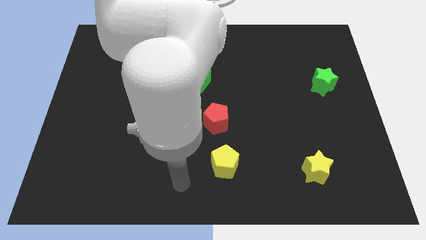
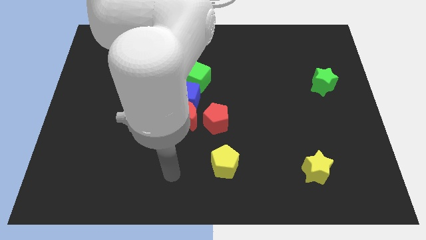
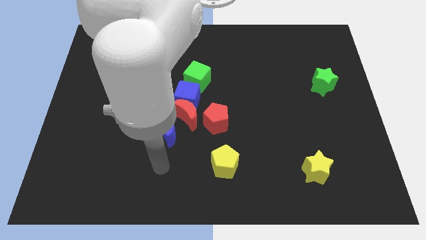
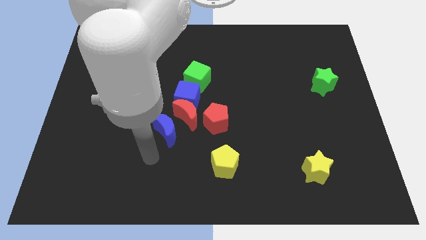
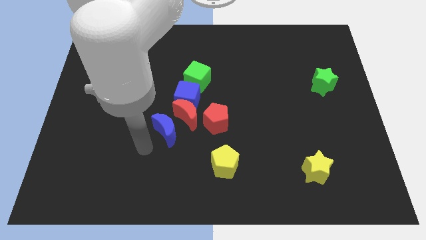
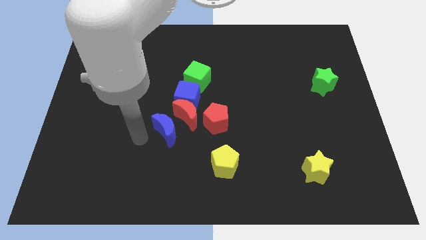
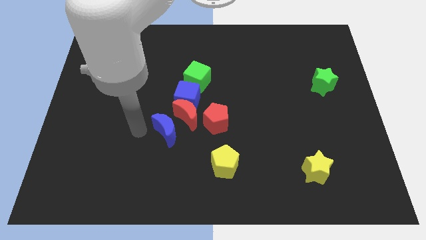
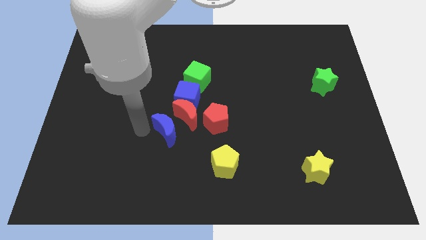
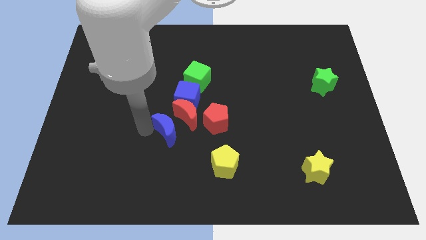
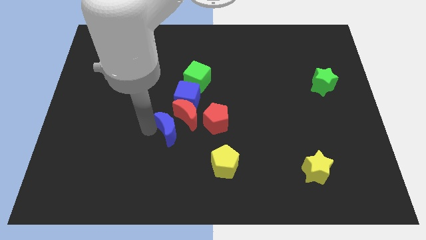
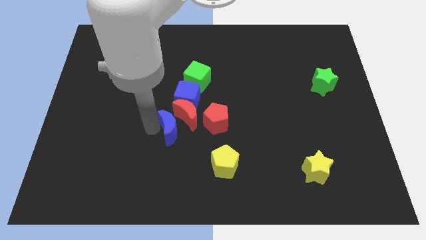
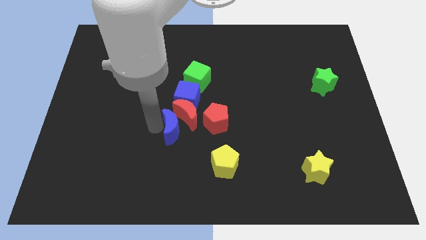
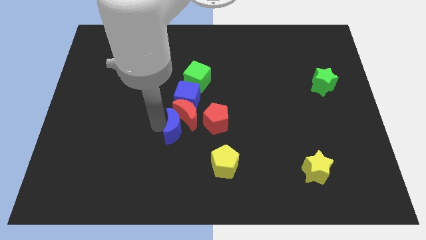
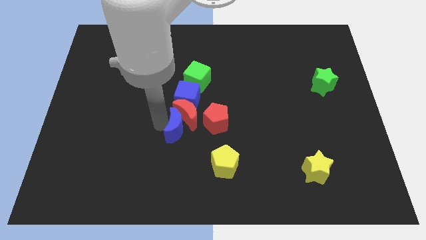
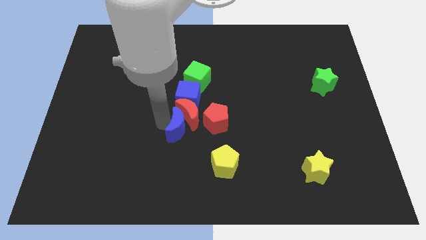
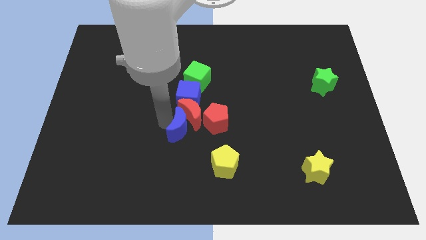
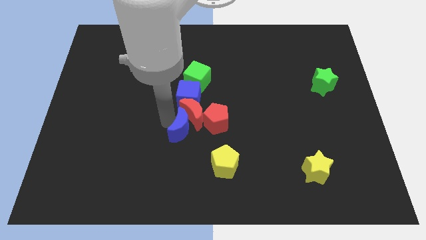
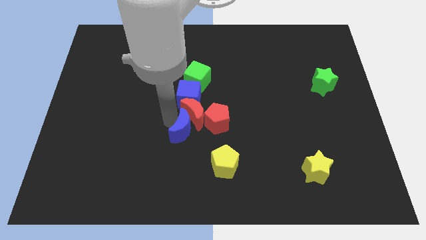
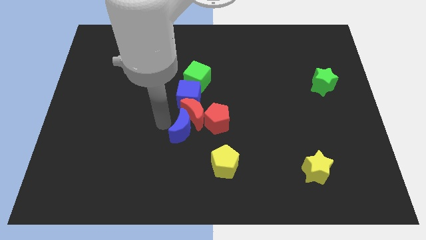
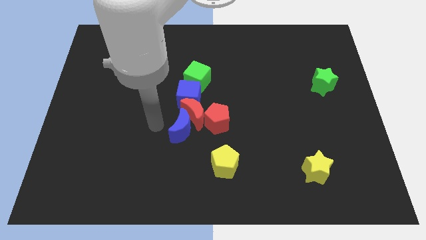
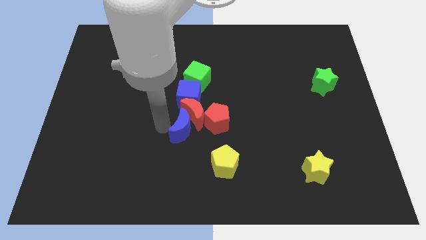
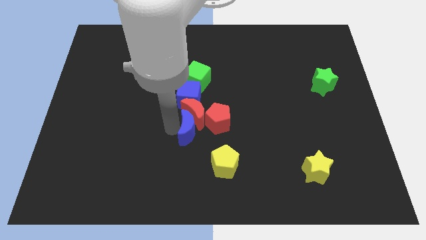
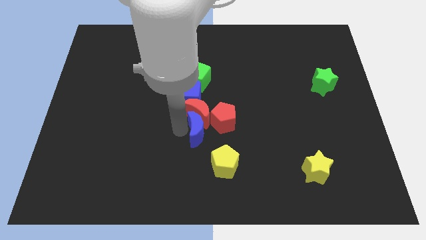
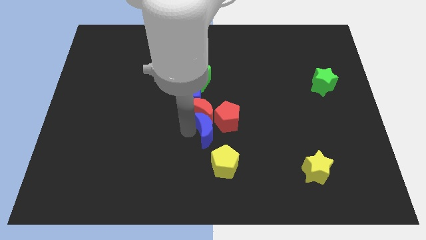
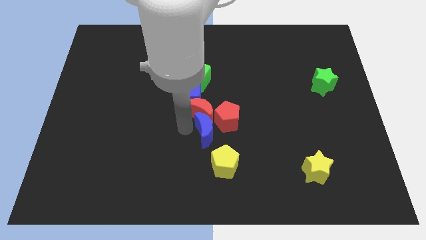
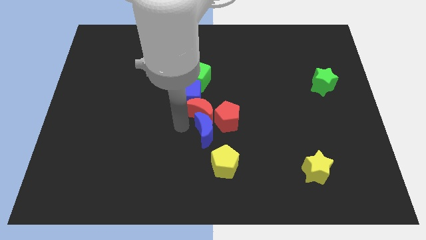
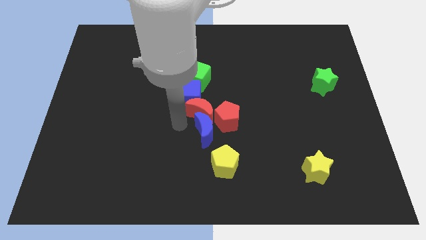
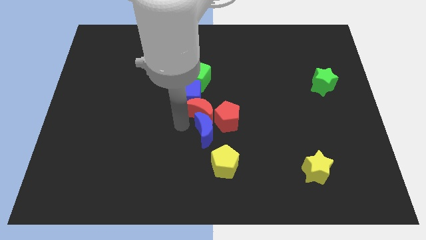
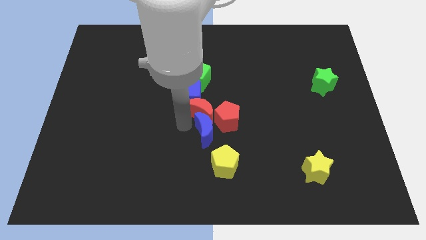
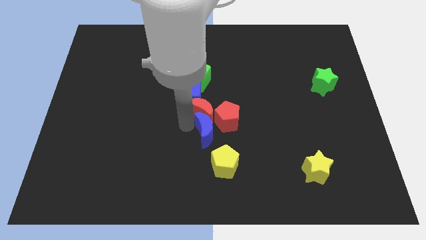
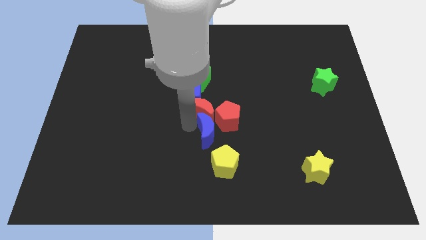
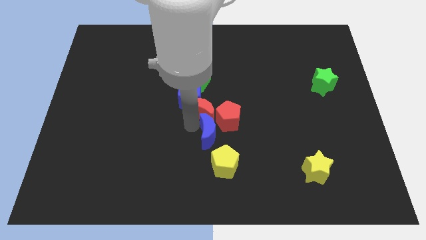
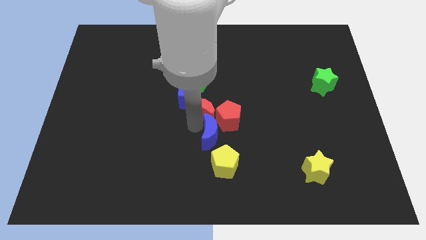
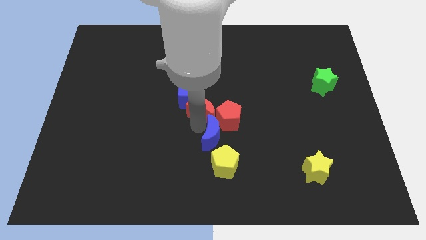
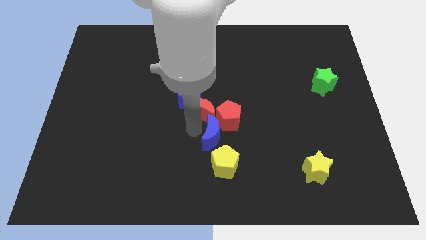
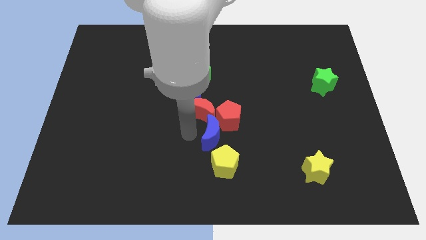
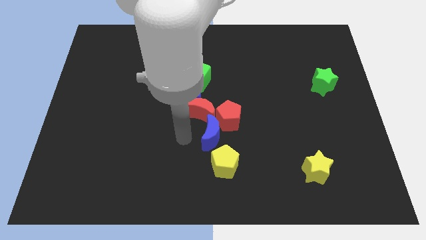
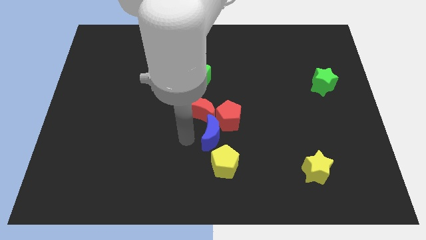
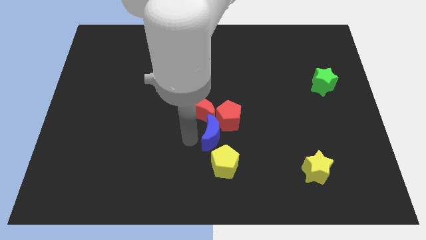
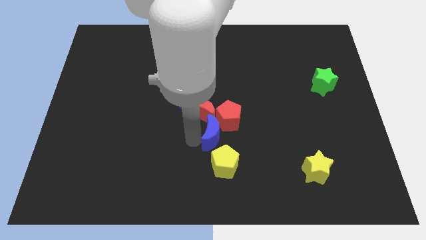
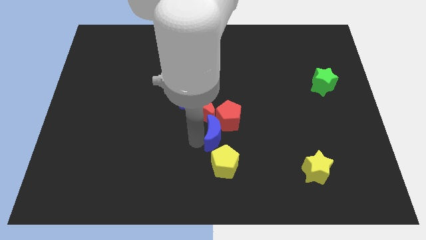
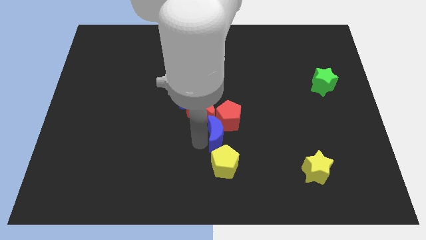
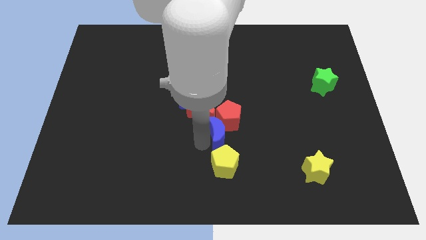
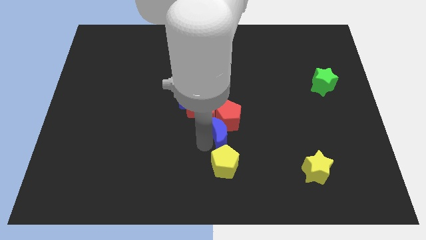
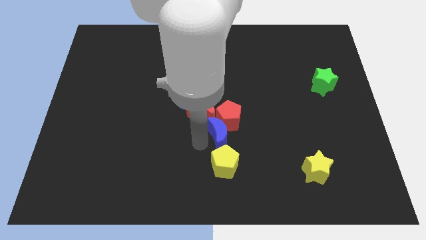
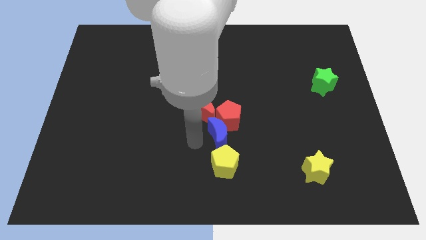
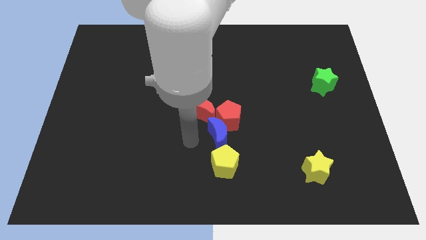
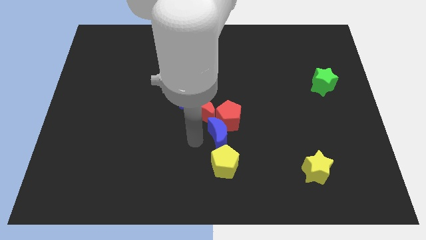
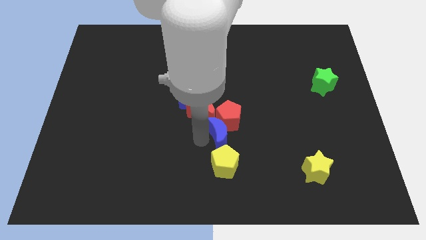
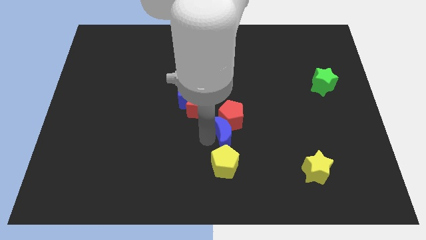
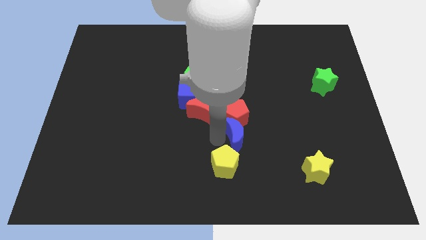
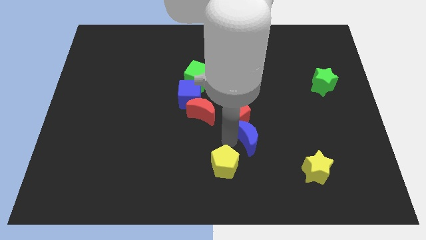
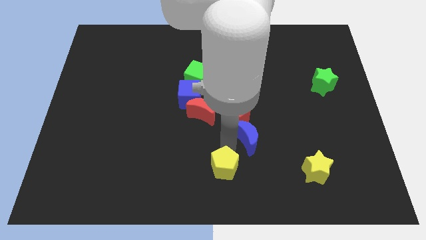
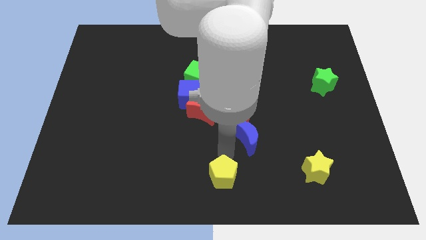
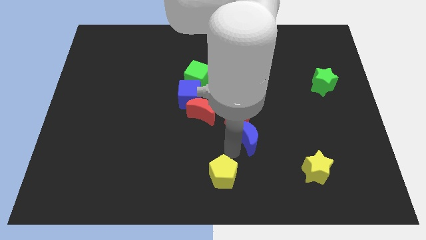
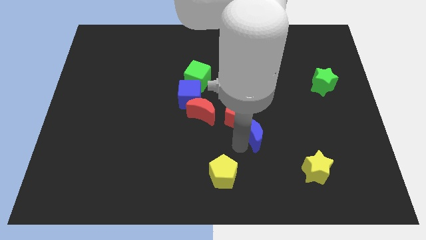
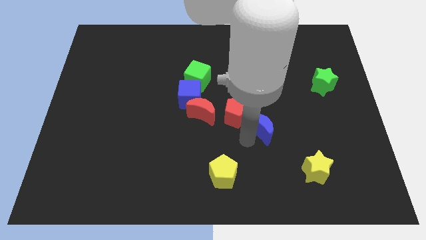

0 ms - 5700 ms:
slide the blue moon right of the red pentagon

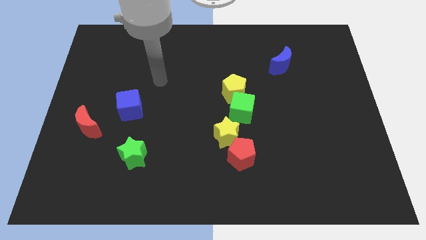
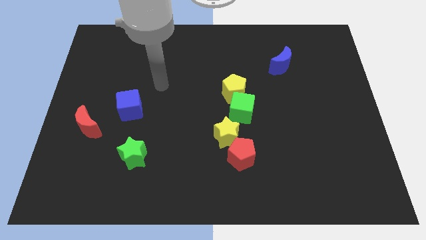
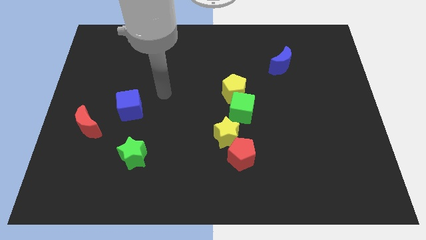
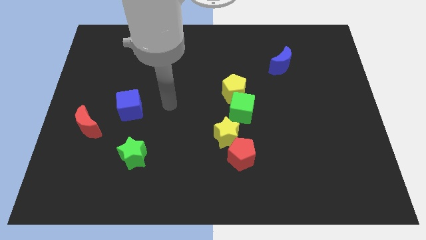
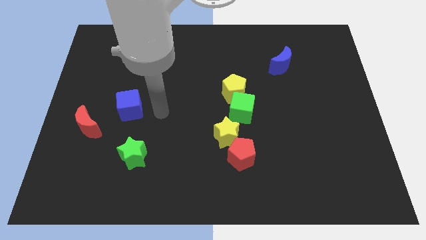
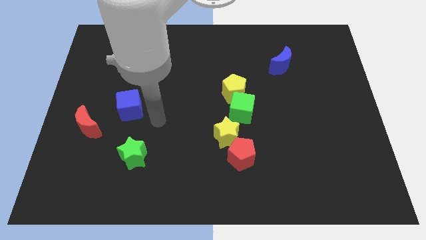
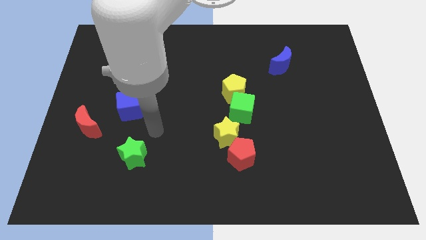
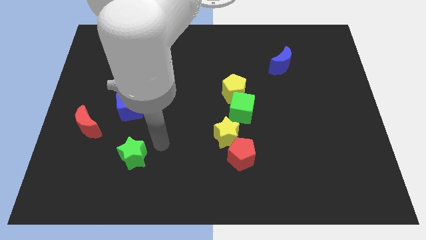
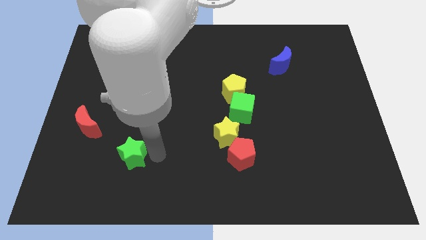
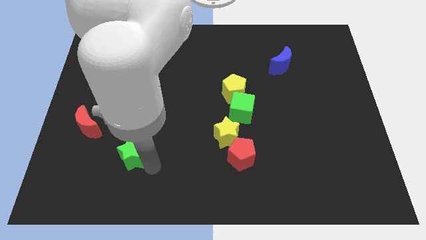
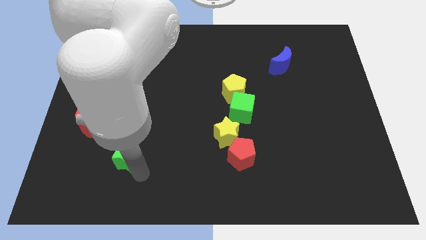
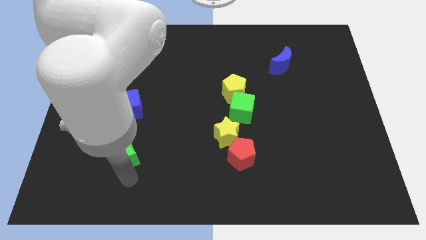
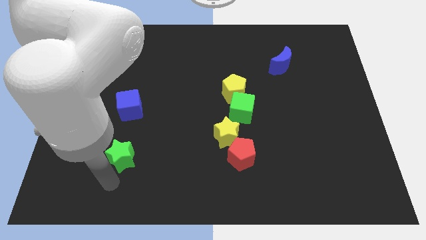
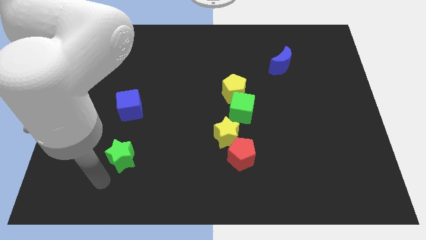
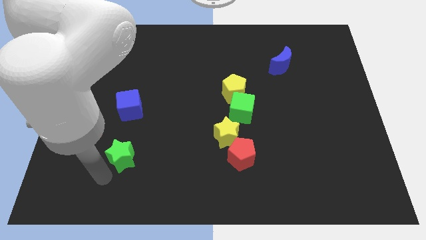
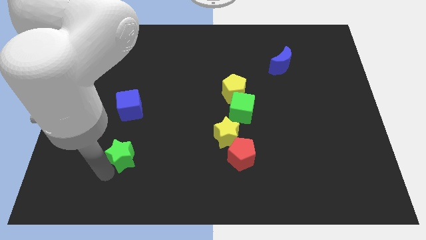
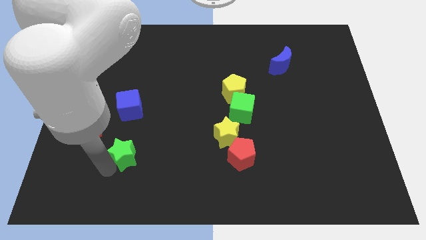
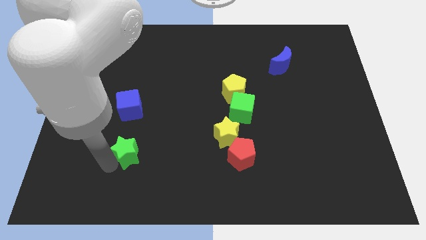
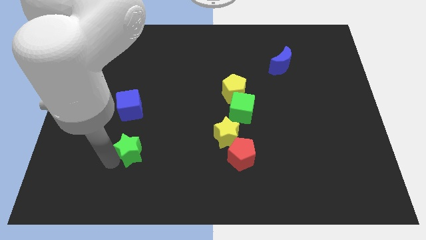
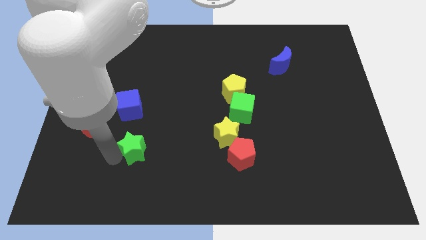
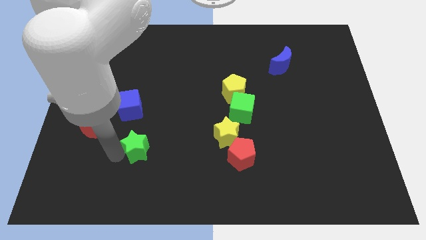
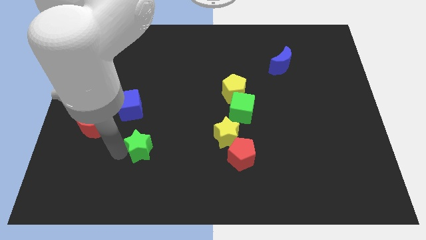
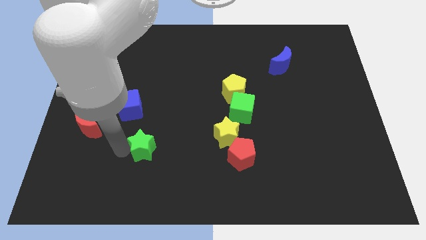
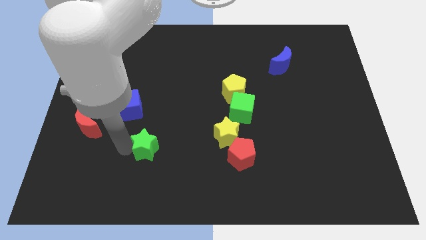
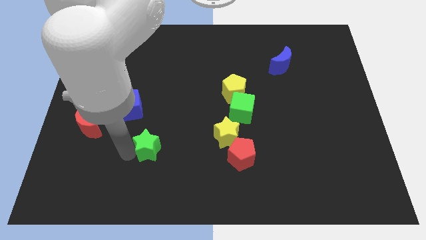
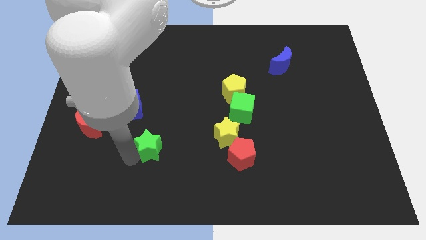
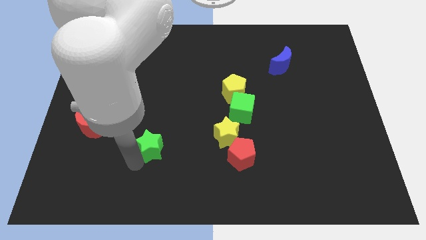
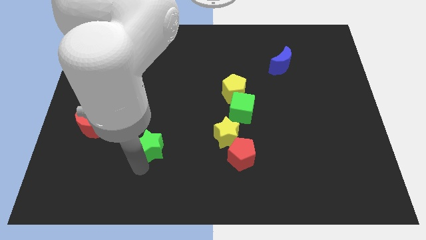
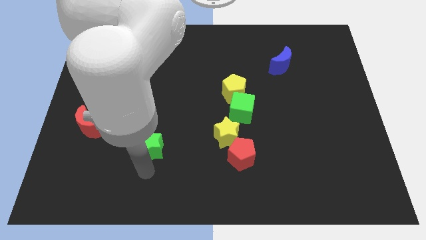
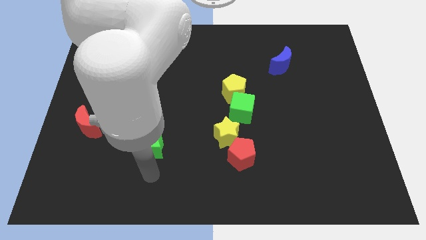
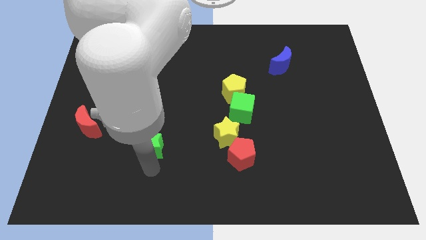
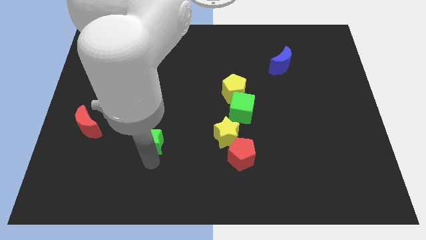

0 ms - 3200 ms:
put the green star diagonally down and to the right of the blue cube
